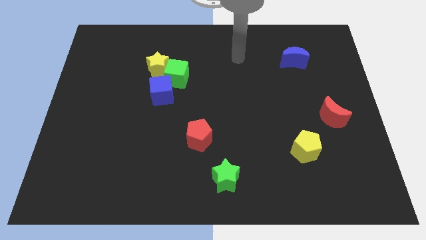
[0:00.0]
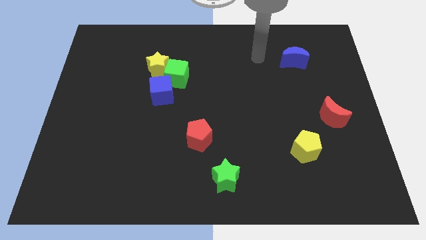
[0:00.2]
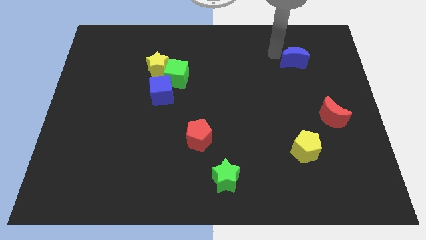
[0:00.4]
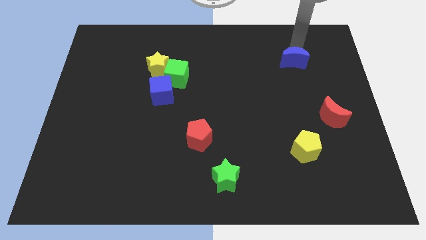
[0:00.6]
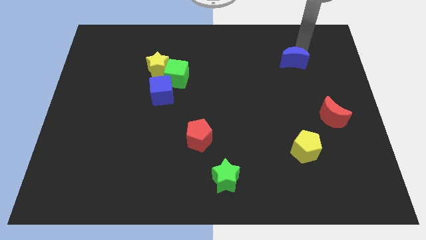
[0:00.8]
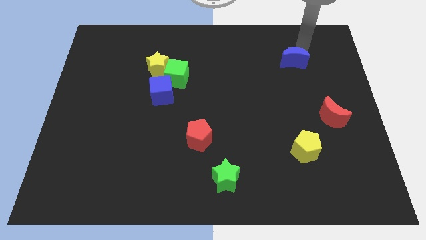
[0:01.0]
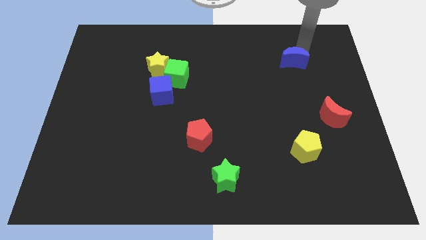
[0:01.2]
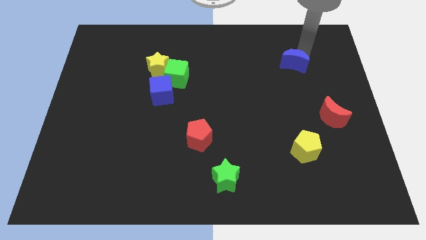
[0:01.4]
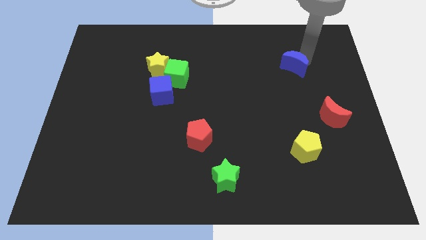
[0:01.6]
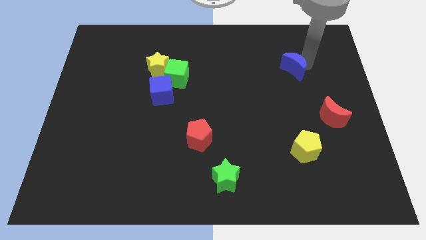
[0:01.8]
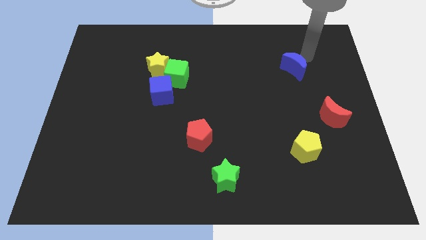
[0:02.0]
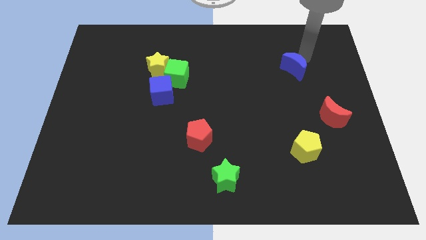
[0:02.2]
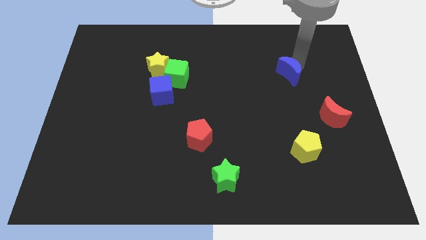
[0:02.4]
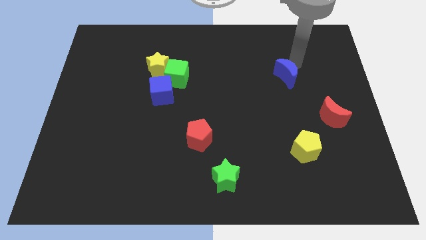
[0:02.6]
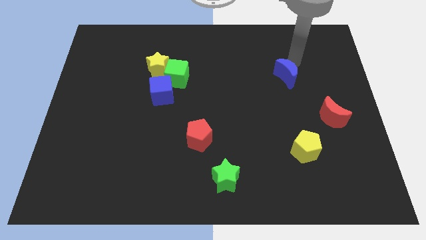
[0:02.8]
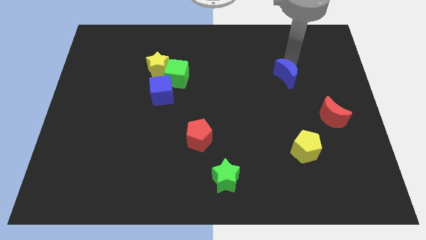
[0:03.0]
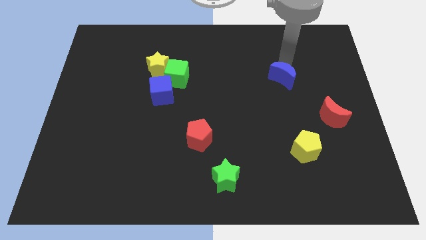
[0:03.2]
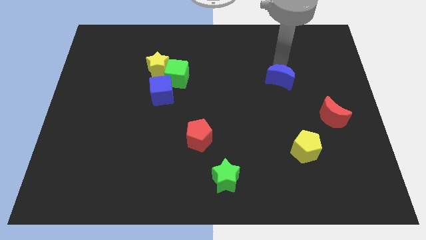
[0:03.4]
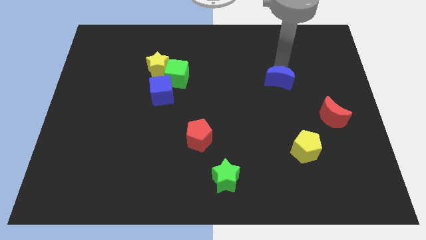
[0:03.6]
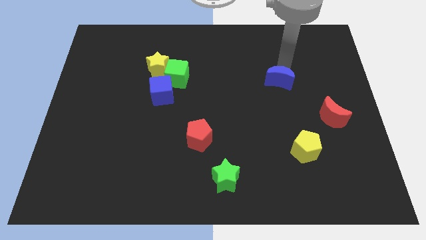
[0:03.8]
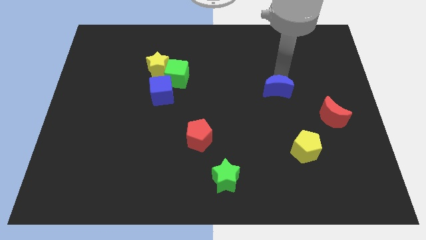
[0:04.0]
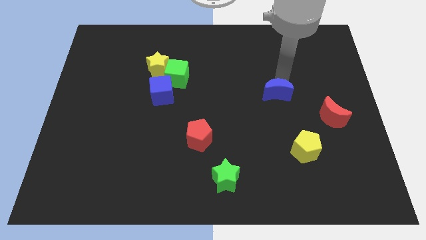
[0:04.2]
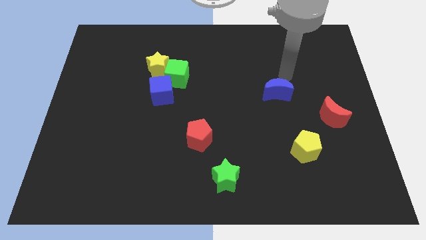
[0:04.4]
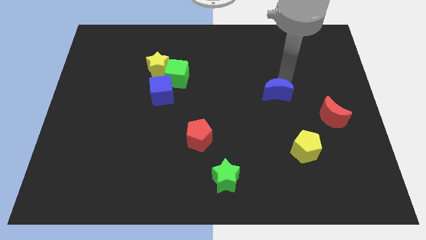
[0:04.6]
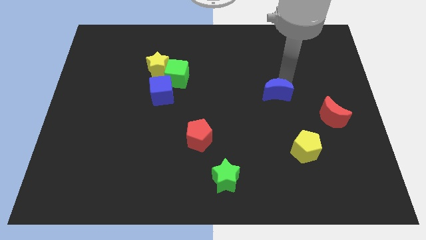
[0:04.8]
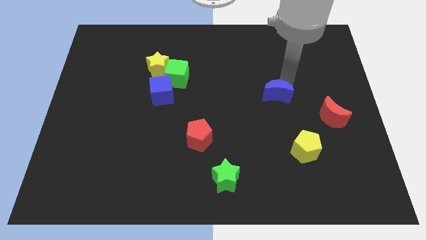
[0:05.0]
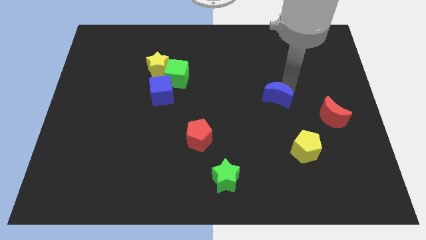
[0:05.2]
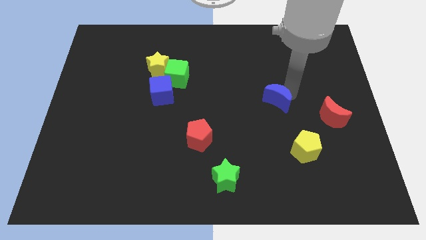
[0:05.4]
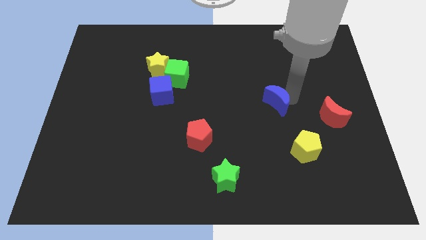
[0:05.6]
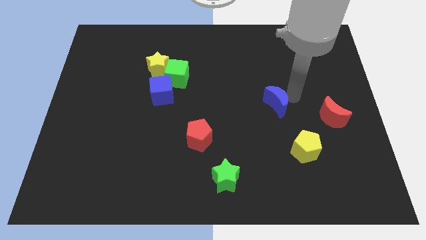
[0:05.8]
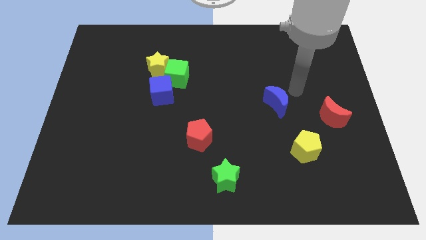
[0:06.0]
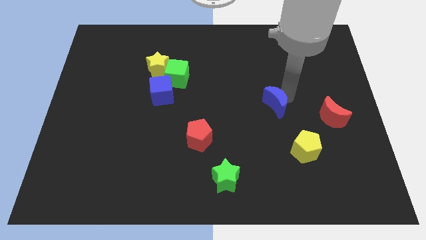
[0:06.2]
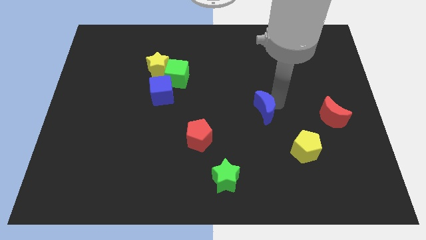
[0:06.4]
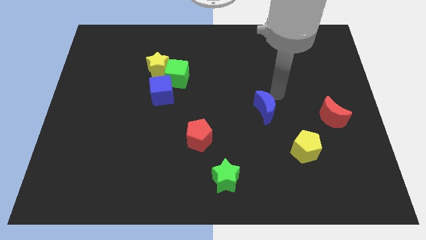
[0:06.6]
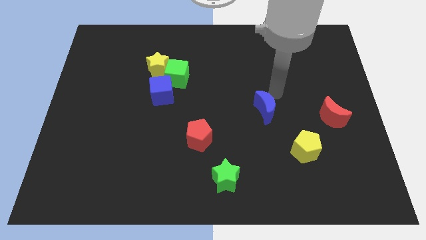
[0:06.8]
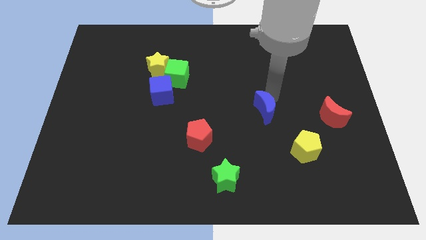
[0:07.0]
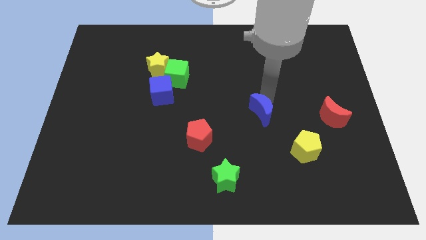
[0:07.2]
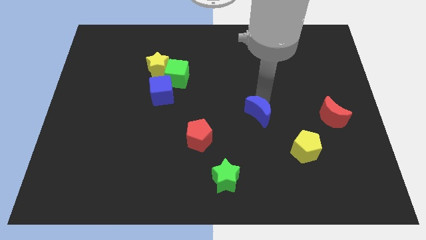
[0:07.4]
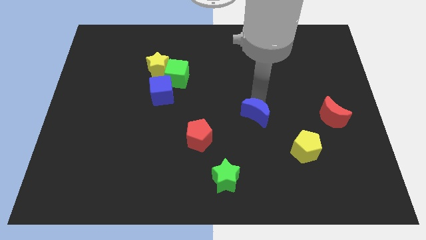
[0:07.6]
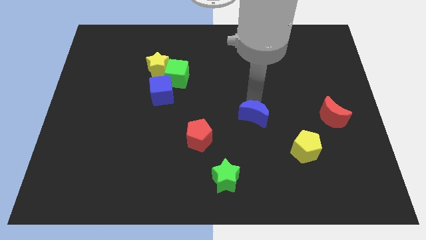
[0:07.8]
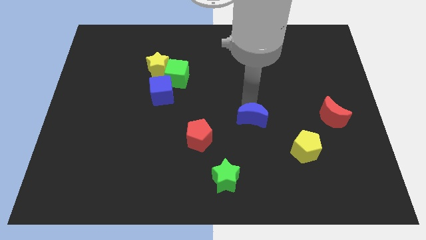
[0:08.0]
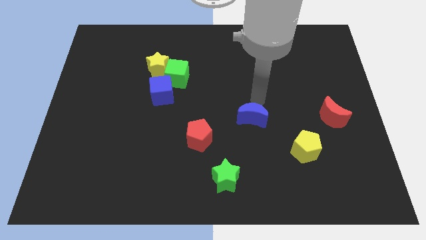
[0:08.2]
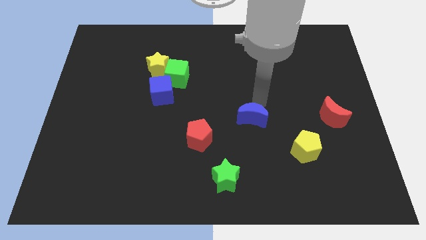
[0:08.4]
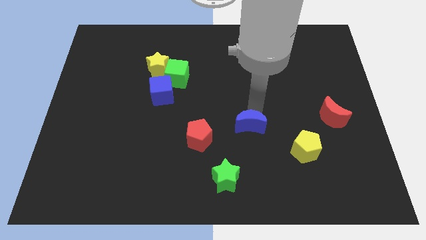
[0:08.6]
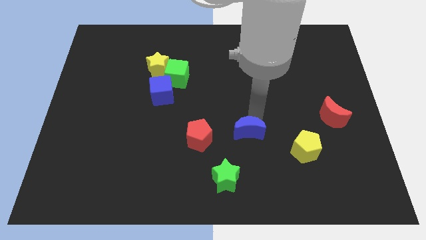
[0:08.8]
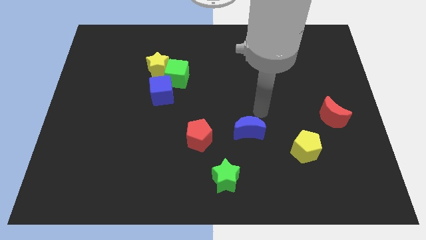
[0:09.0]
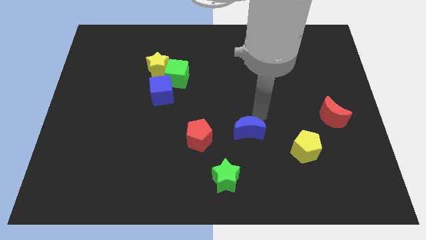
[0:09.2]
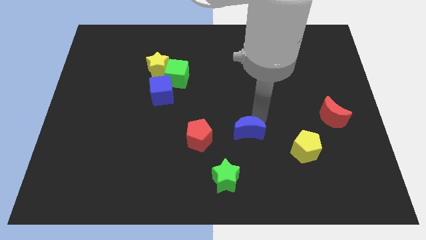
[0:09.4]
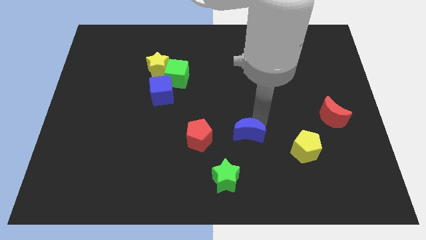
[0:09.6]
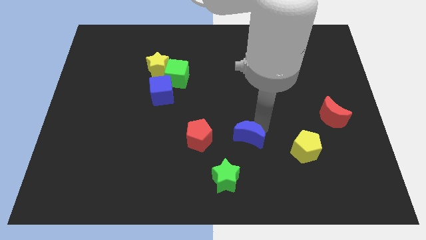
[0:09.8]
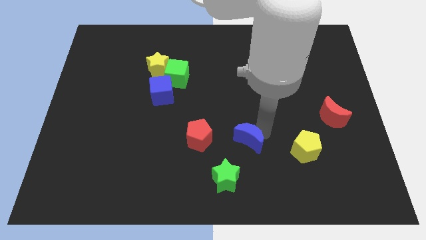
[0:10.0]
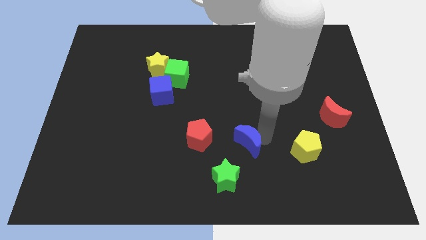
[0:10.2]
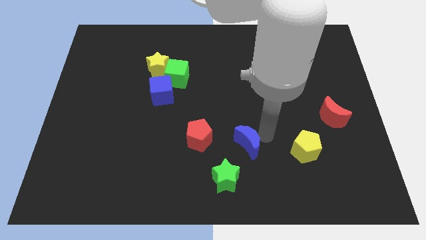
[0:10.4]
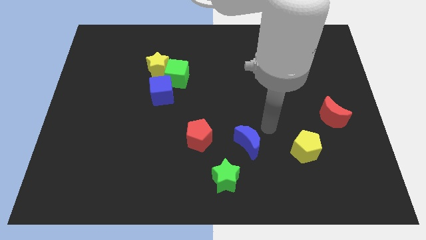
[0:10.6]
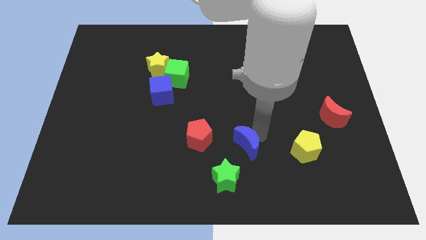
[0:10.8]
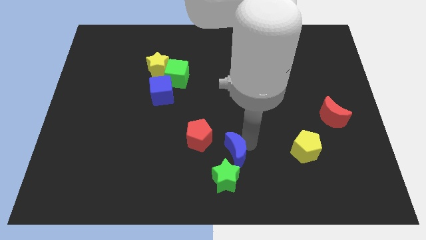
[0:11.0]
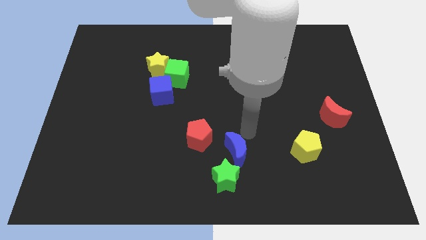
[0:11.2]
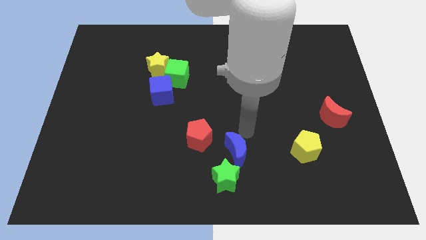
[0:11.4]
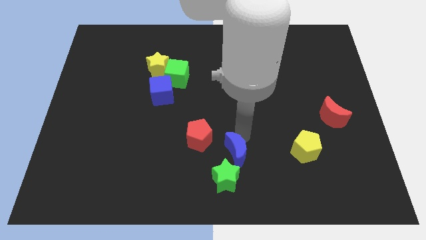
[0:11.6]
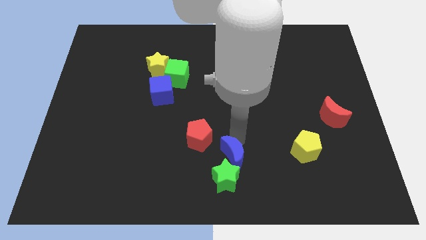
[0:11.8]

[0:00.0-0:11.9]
move the blue moon next to the green star

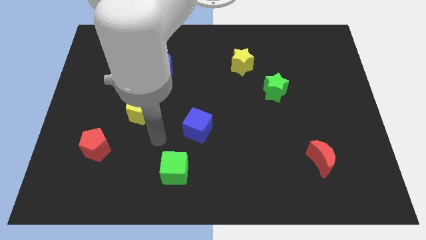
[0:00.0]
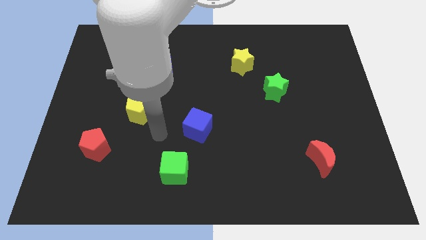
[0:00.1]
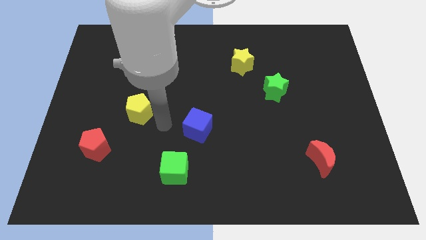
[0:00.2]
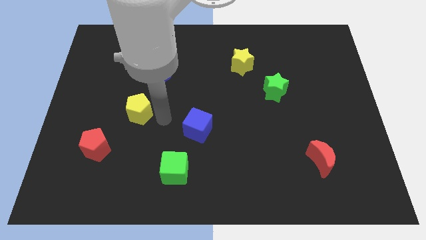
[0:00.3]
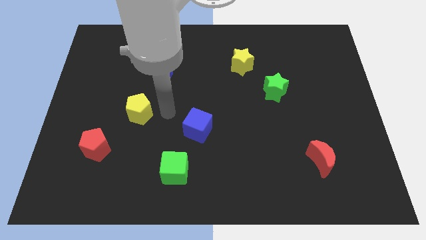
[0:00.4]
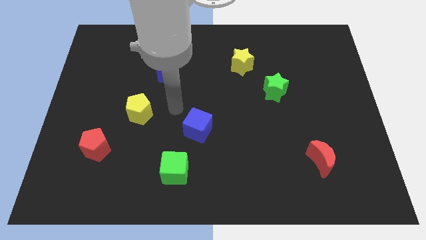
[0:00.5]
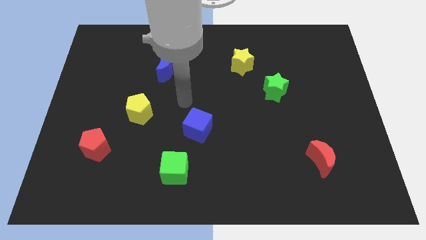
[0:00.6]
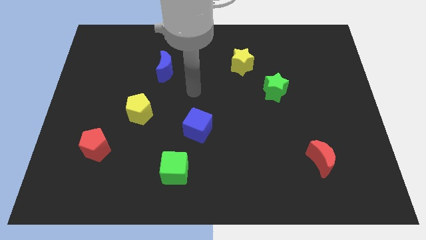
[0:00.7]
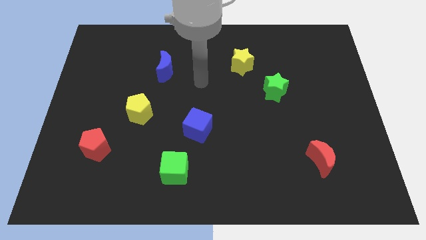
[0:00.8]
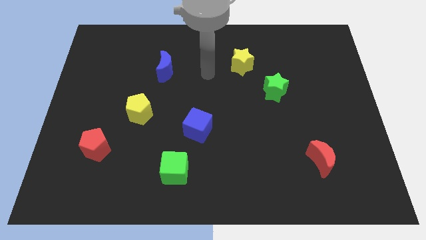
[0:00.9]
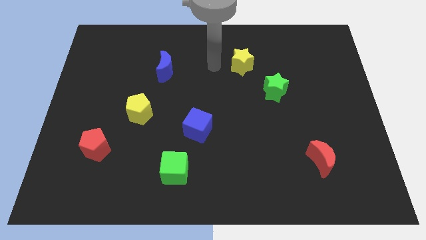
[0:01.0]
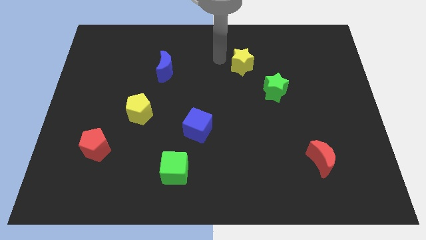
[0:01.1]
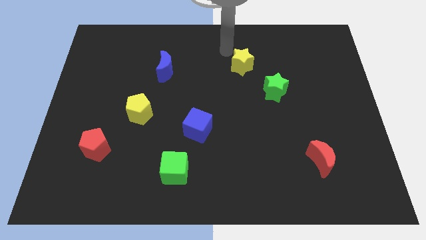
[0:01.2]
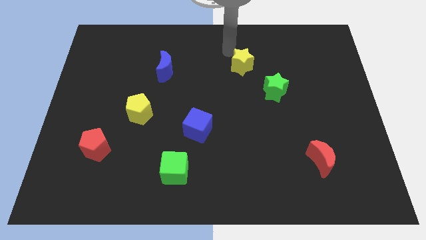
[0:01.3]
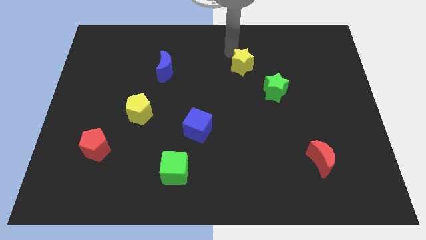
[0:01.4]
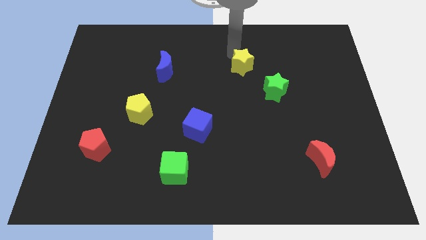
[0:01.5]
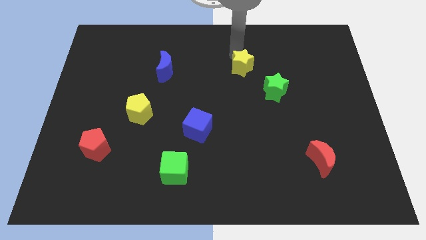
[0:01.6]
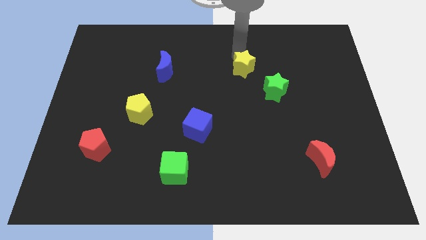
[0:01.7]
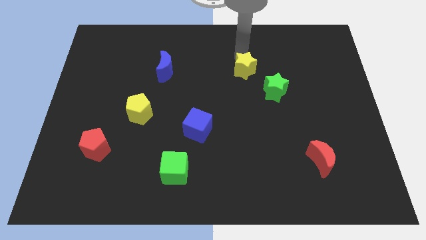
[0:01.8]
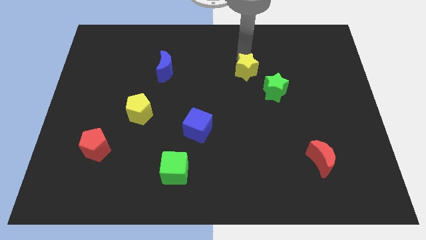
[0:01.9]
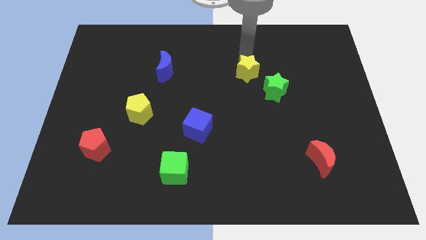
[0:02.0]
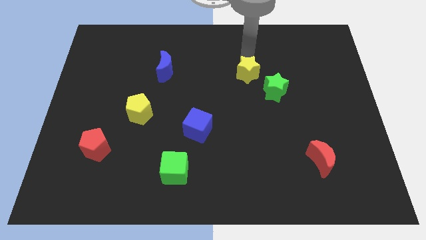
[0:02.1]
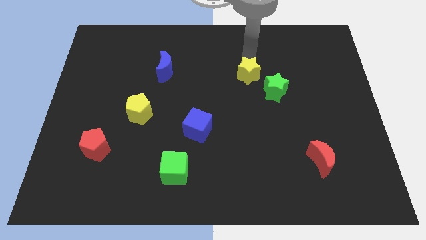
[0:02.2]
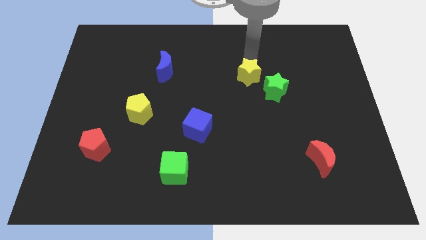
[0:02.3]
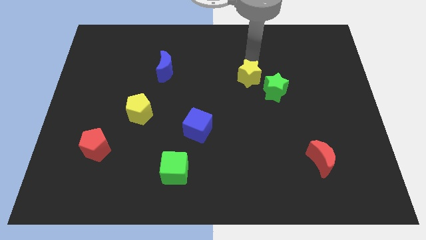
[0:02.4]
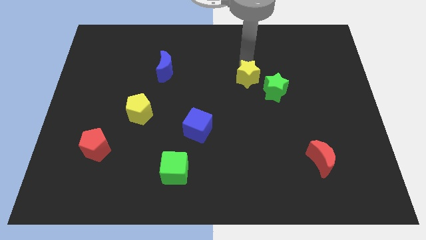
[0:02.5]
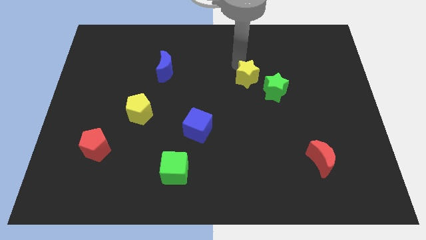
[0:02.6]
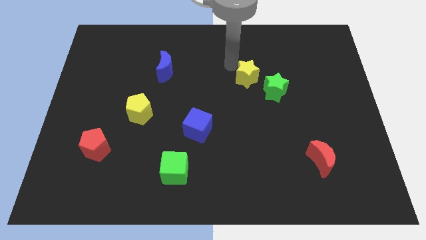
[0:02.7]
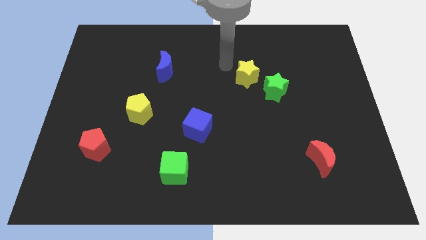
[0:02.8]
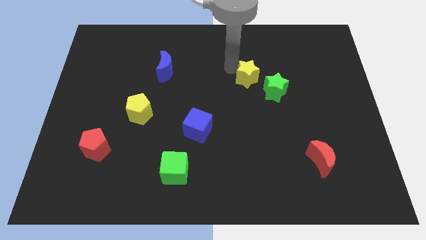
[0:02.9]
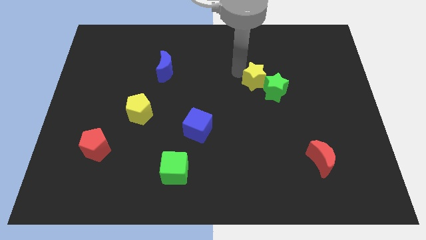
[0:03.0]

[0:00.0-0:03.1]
move the yellow star close to the green star
